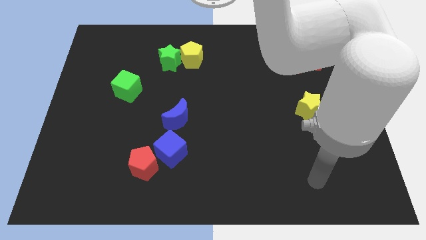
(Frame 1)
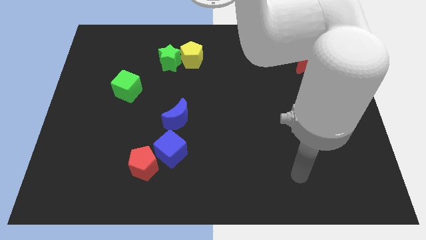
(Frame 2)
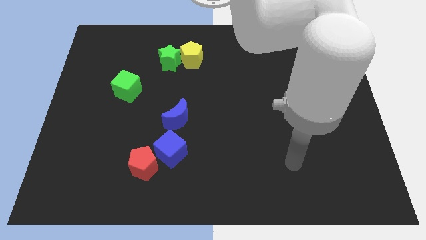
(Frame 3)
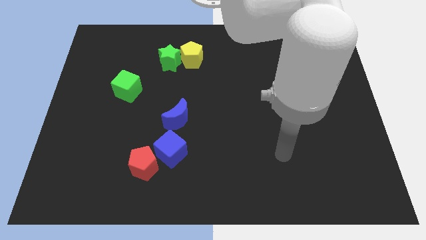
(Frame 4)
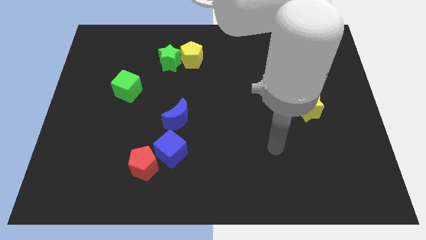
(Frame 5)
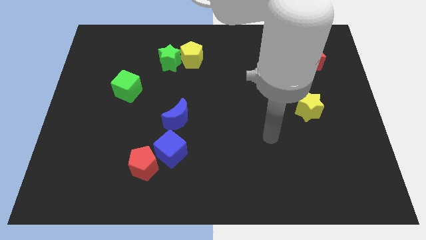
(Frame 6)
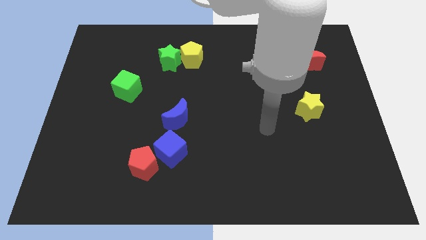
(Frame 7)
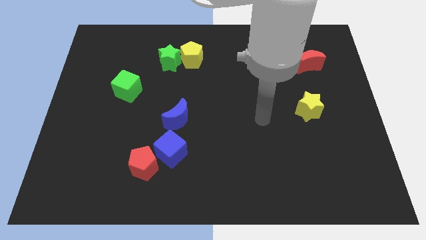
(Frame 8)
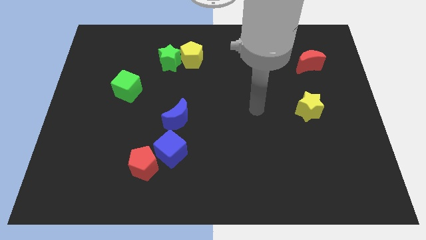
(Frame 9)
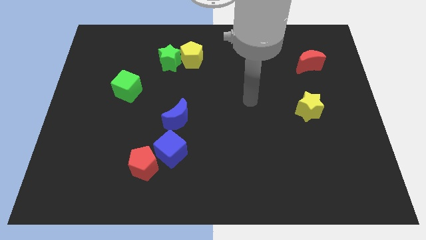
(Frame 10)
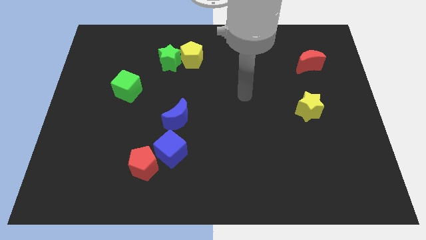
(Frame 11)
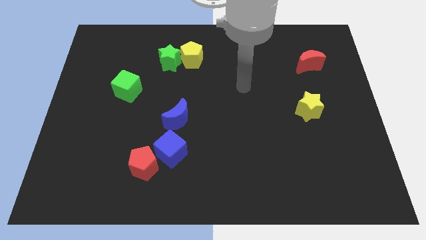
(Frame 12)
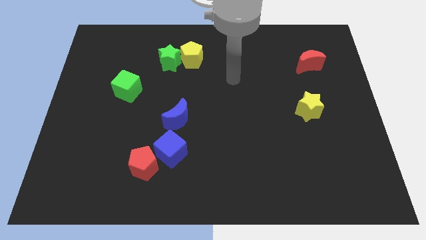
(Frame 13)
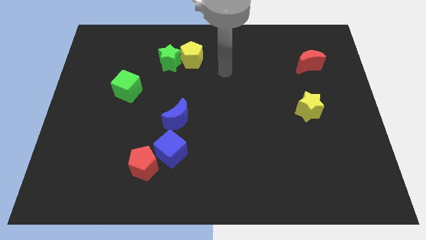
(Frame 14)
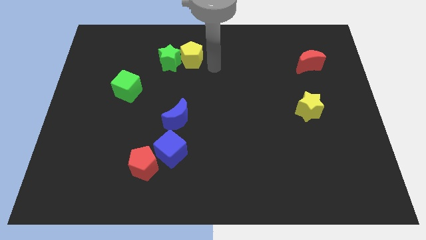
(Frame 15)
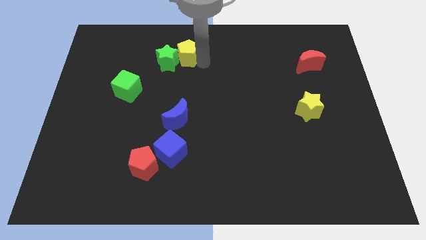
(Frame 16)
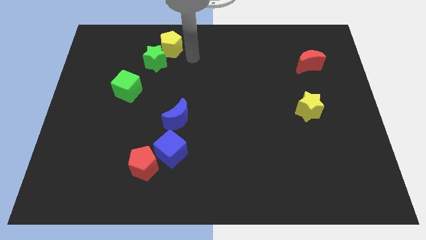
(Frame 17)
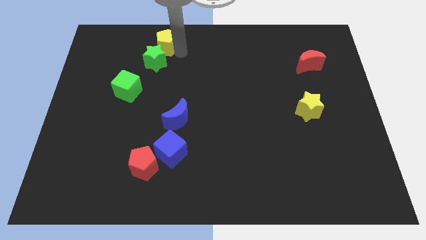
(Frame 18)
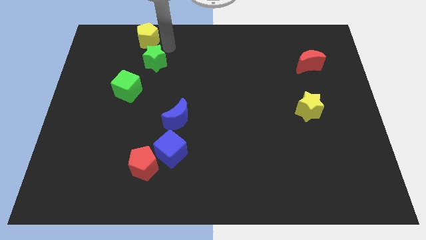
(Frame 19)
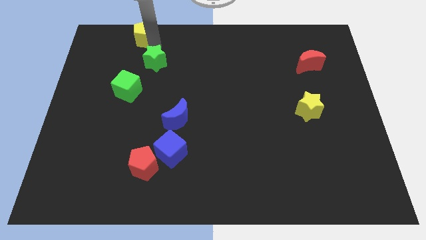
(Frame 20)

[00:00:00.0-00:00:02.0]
pull the green star apart from the yellow pentagon

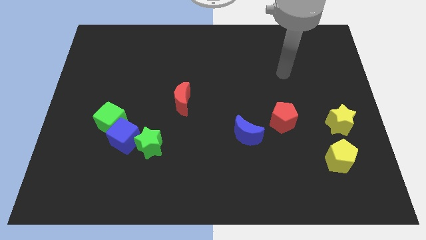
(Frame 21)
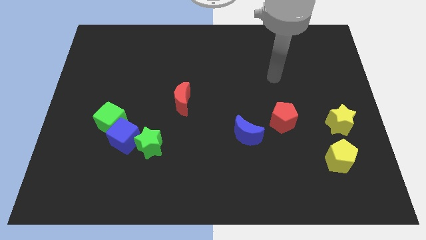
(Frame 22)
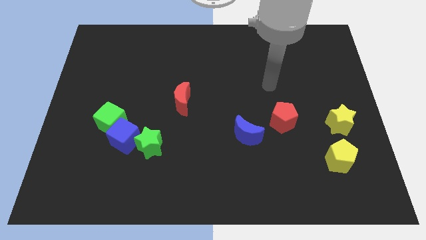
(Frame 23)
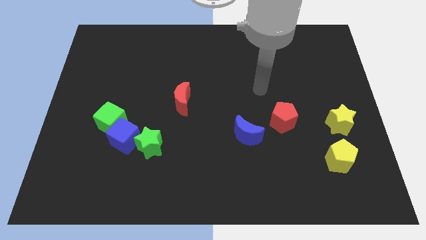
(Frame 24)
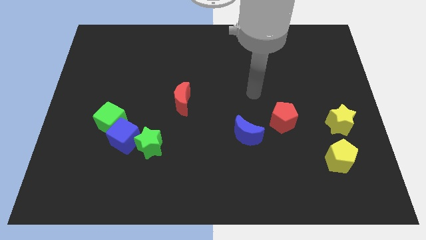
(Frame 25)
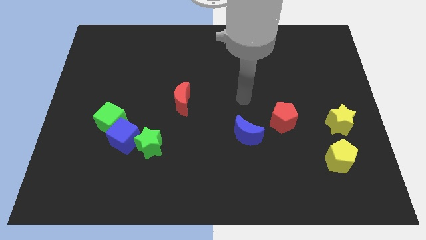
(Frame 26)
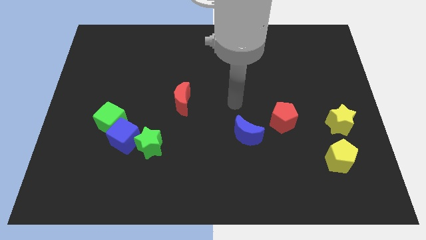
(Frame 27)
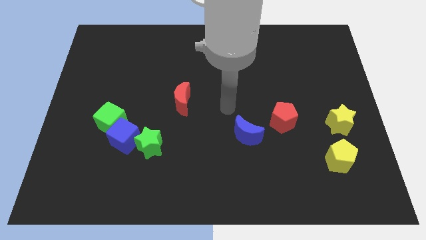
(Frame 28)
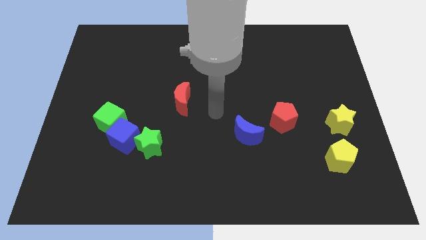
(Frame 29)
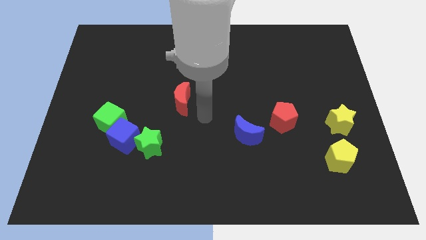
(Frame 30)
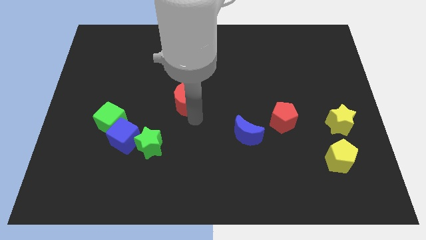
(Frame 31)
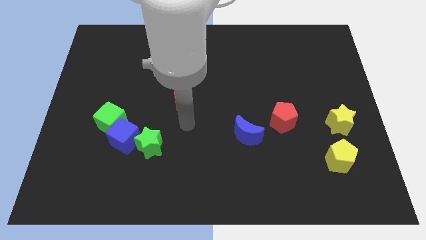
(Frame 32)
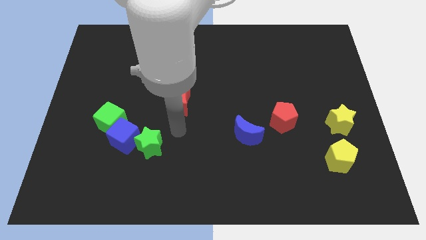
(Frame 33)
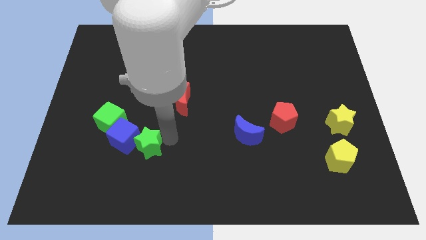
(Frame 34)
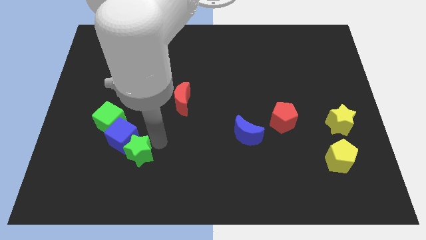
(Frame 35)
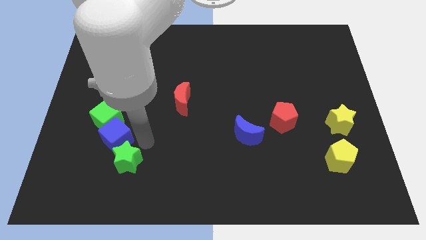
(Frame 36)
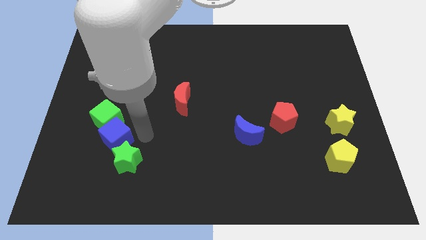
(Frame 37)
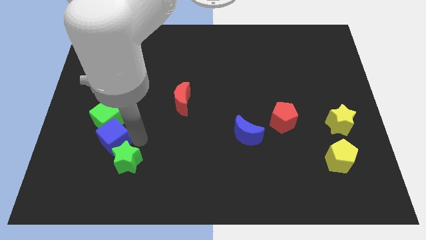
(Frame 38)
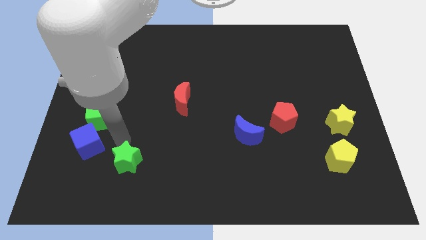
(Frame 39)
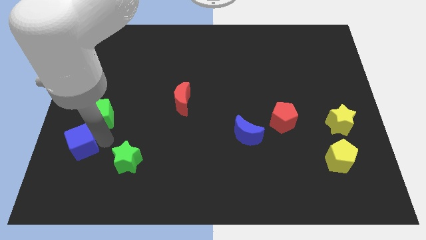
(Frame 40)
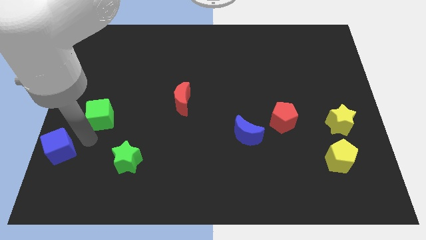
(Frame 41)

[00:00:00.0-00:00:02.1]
move the green cube away from the blue cube

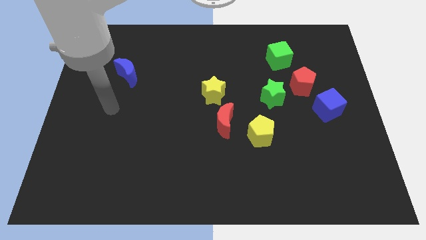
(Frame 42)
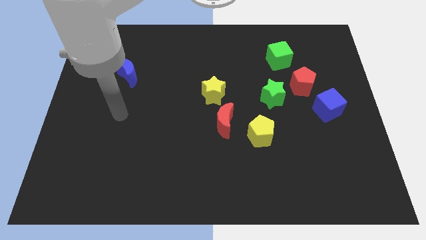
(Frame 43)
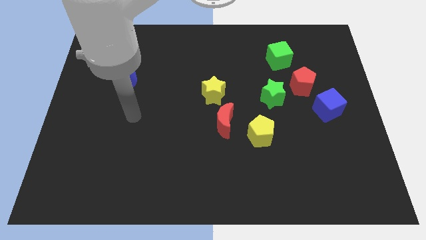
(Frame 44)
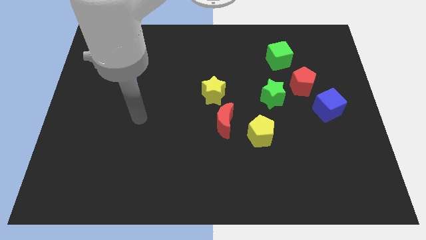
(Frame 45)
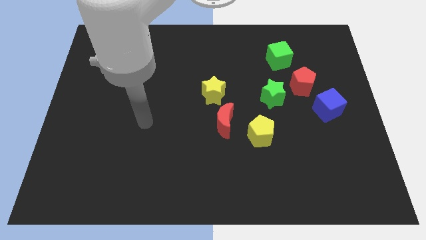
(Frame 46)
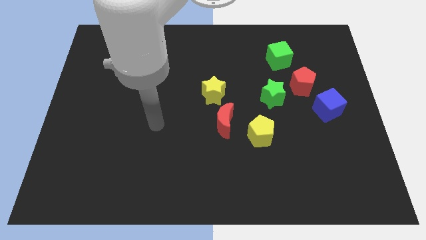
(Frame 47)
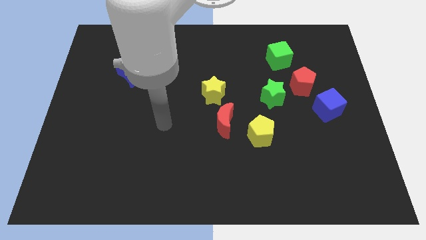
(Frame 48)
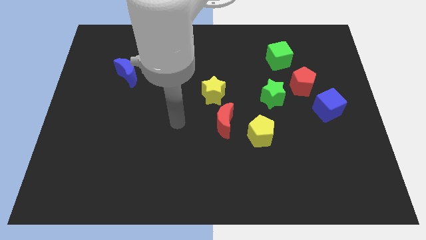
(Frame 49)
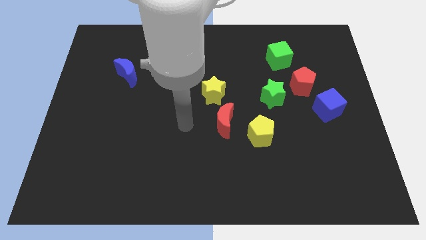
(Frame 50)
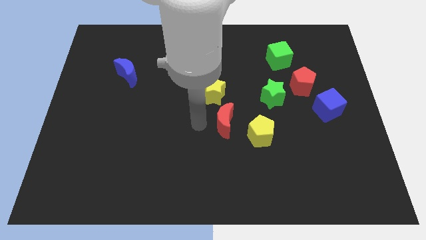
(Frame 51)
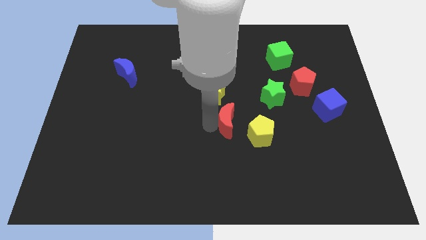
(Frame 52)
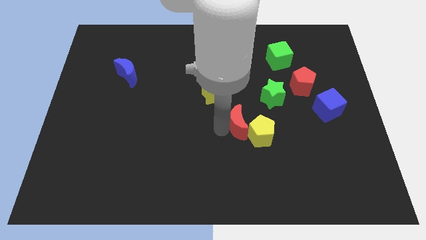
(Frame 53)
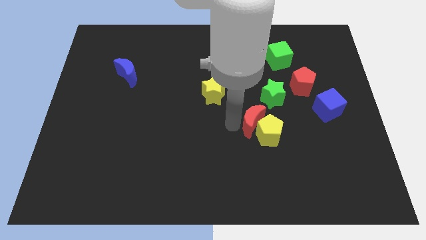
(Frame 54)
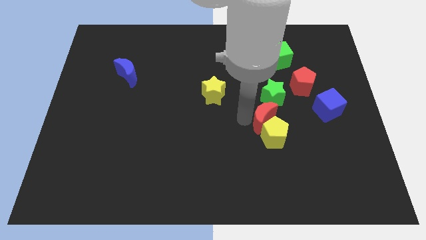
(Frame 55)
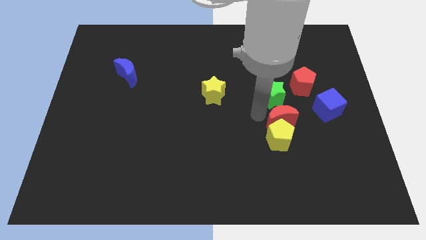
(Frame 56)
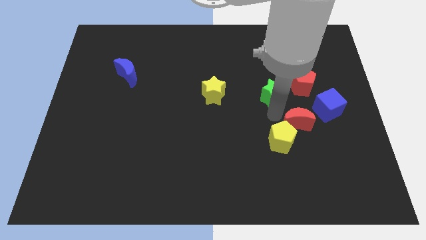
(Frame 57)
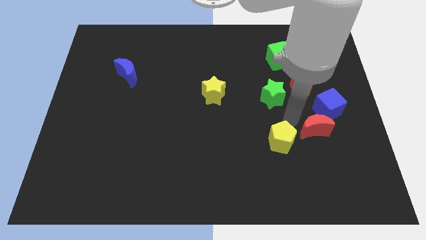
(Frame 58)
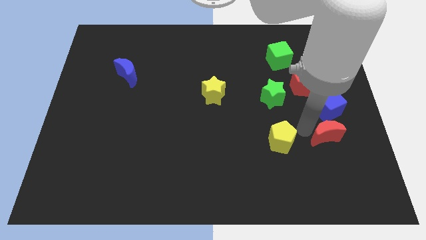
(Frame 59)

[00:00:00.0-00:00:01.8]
pull the yellow pentagon apart from the red moon

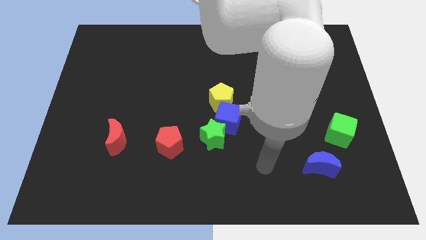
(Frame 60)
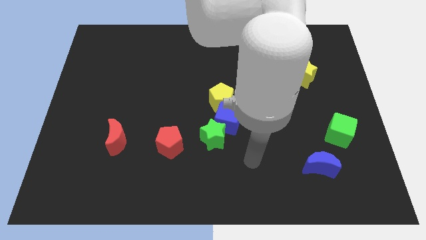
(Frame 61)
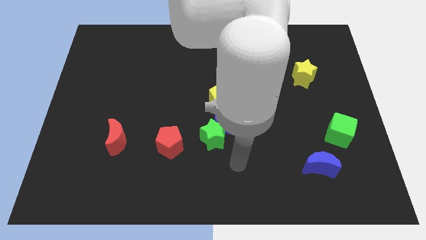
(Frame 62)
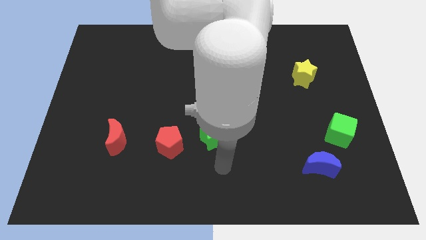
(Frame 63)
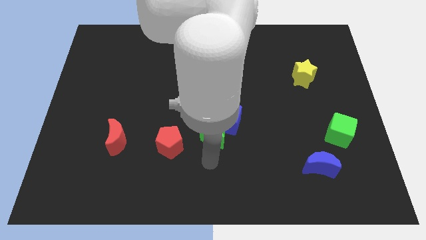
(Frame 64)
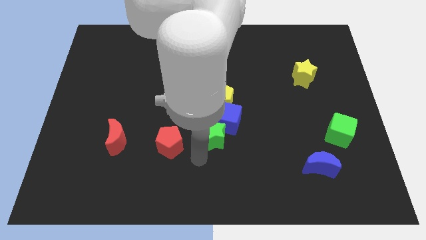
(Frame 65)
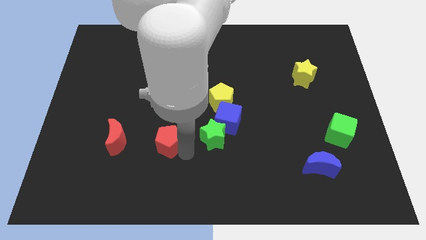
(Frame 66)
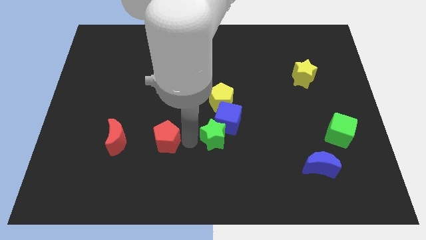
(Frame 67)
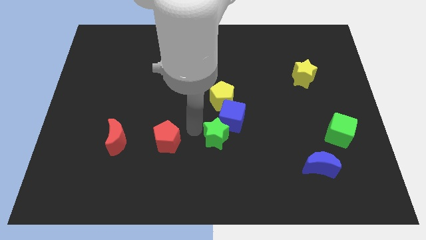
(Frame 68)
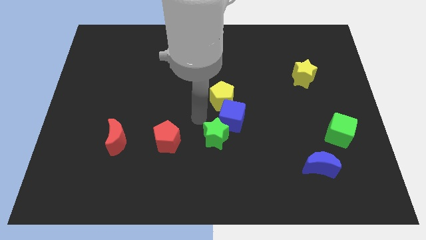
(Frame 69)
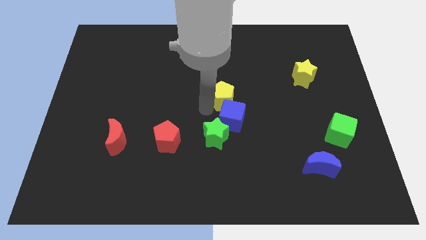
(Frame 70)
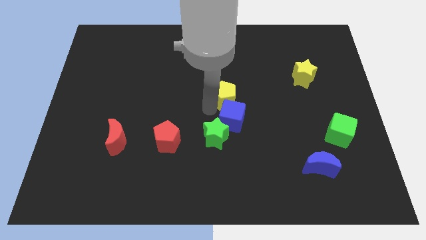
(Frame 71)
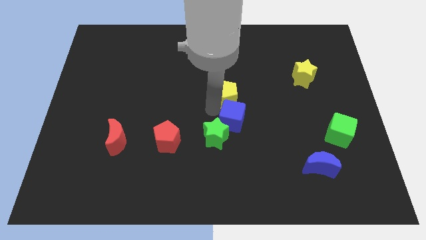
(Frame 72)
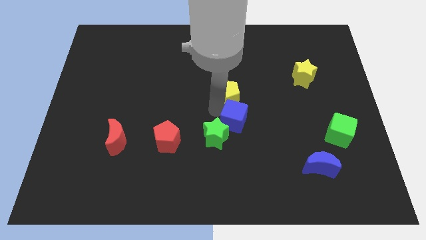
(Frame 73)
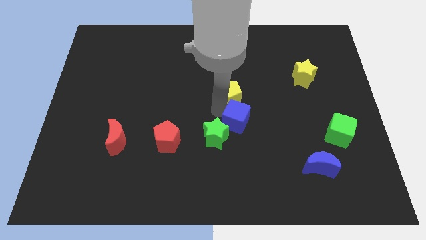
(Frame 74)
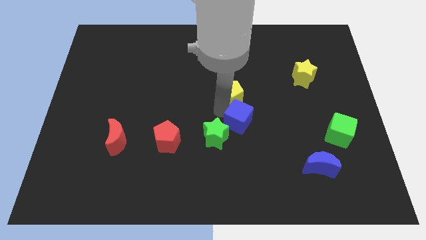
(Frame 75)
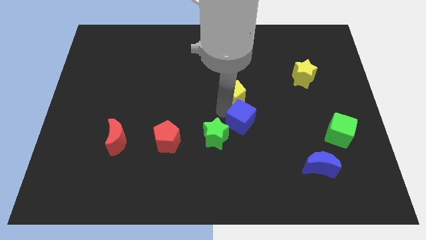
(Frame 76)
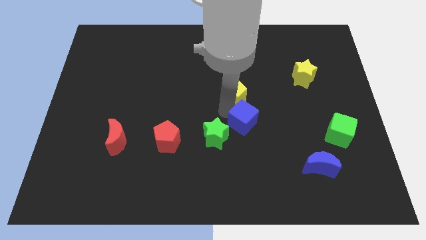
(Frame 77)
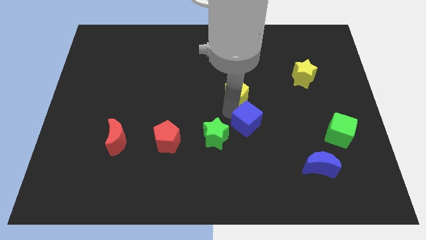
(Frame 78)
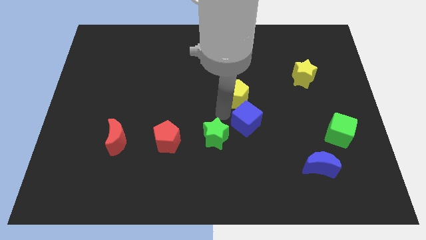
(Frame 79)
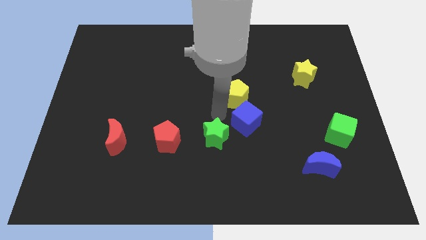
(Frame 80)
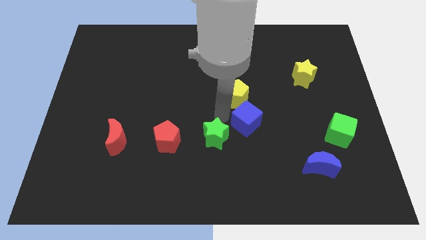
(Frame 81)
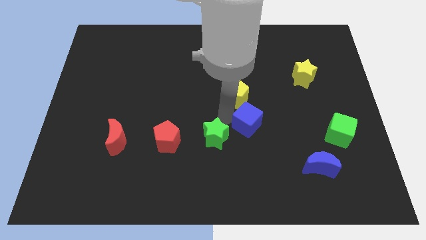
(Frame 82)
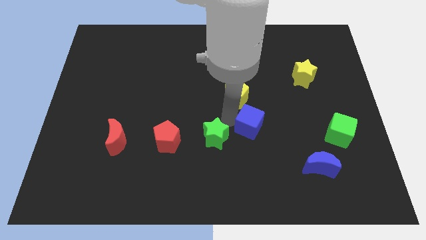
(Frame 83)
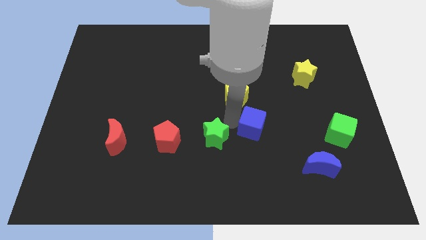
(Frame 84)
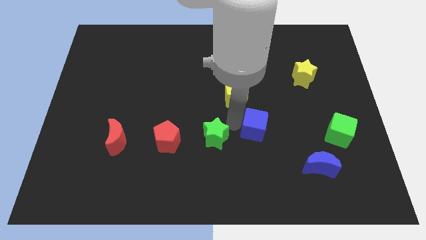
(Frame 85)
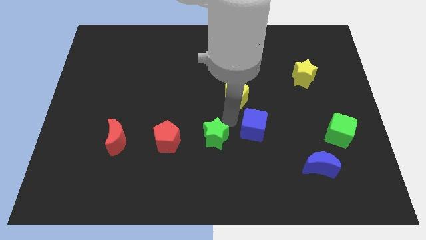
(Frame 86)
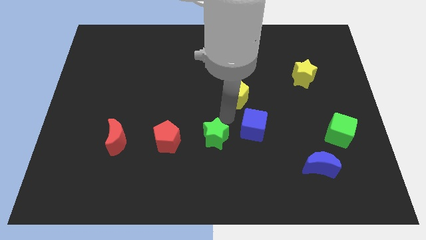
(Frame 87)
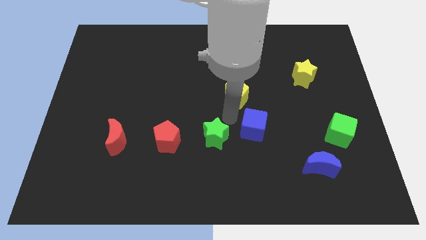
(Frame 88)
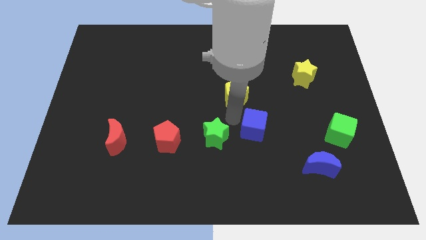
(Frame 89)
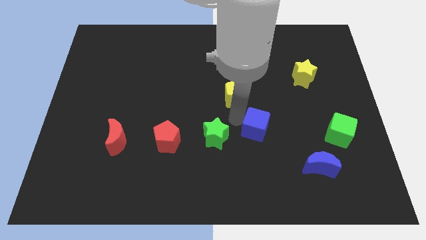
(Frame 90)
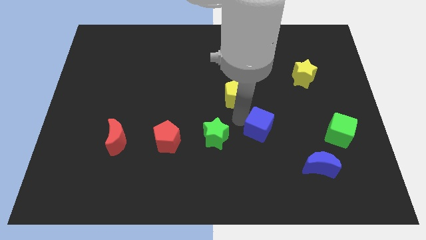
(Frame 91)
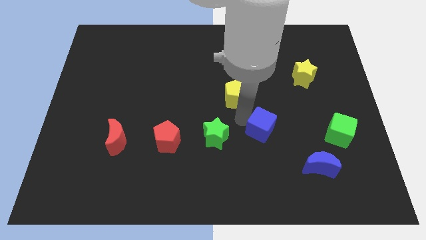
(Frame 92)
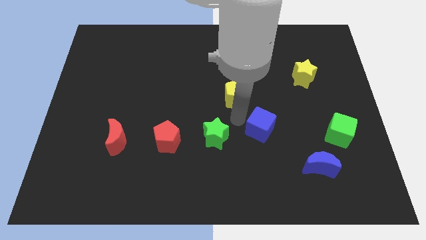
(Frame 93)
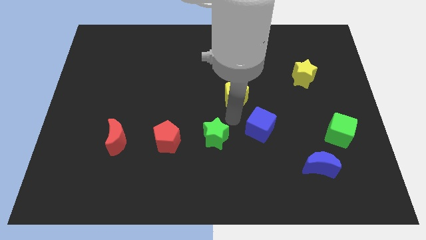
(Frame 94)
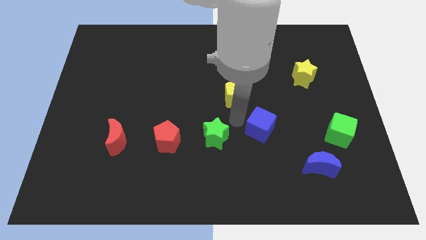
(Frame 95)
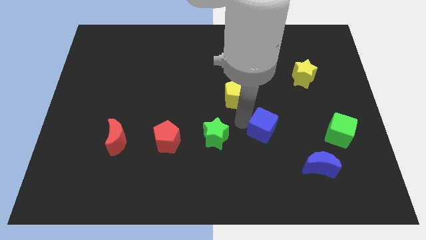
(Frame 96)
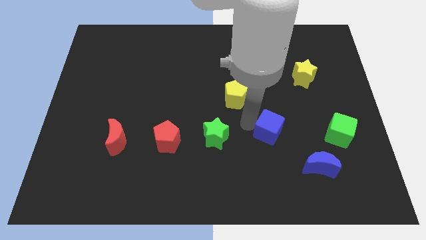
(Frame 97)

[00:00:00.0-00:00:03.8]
pull the blue cube apart from the green star and yellow pentagon
